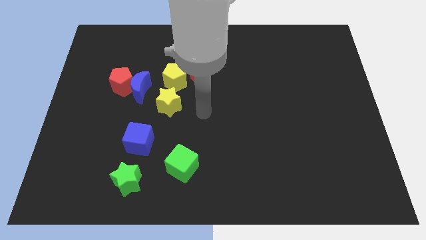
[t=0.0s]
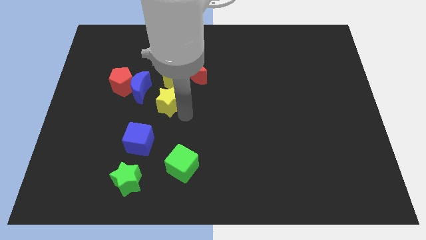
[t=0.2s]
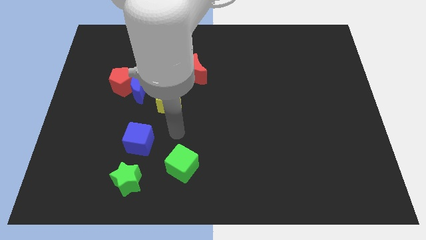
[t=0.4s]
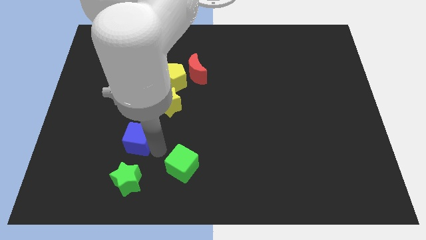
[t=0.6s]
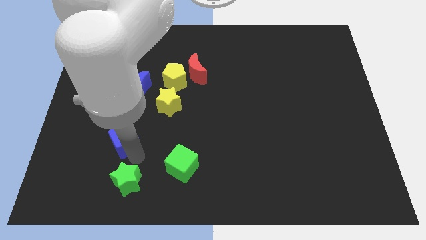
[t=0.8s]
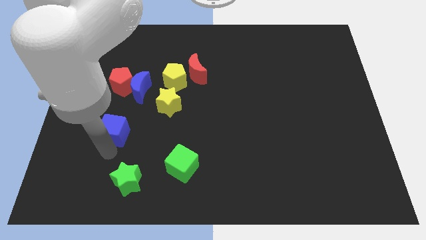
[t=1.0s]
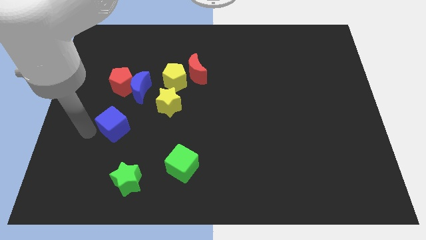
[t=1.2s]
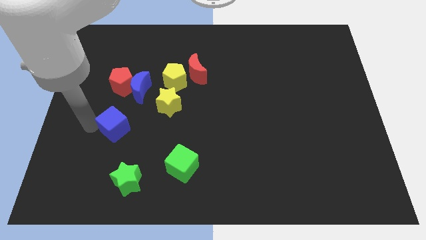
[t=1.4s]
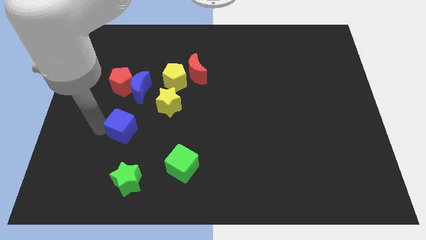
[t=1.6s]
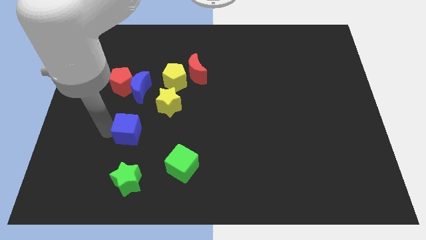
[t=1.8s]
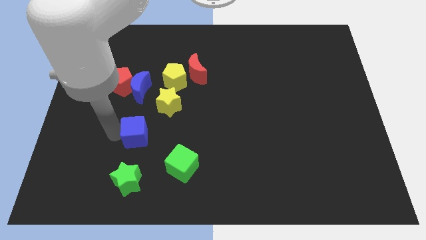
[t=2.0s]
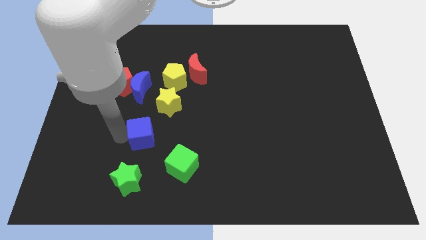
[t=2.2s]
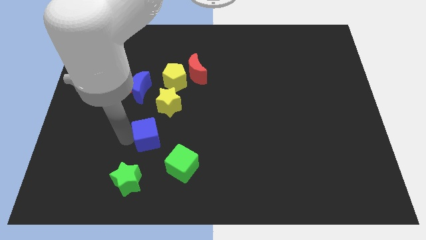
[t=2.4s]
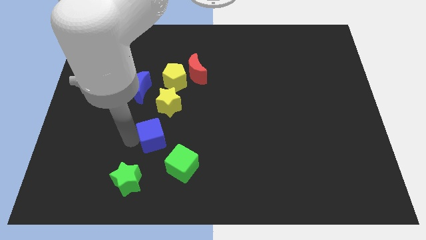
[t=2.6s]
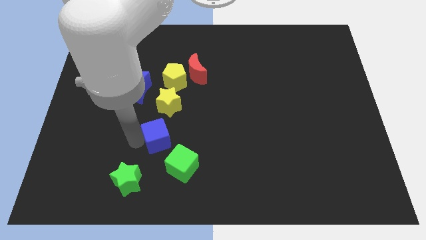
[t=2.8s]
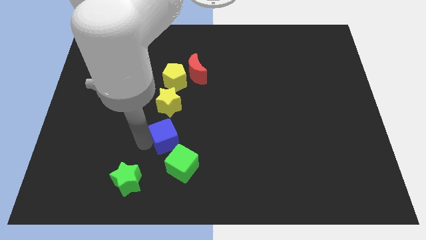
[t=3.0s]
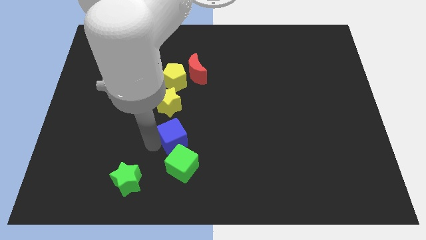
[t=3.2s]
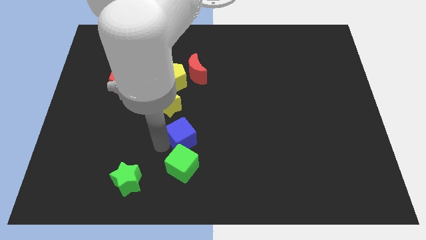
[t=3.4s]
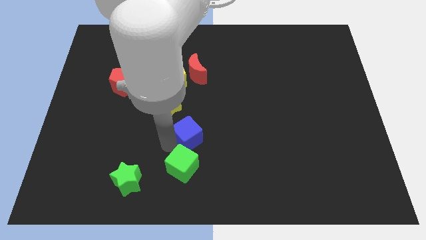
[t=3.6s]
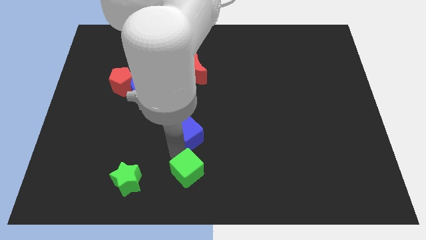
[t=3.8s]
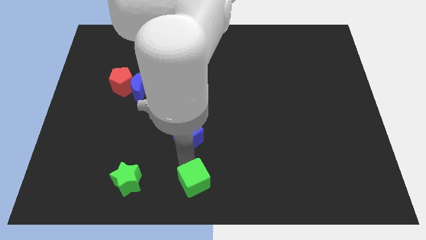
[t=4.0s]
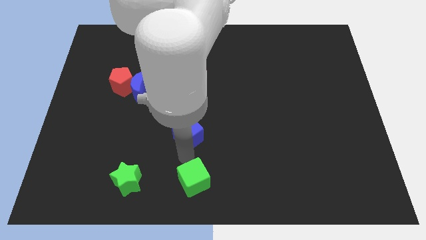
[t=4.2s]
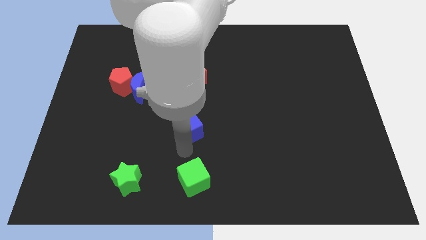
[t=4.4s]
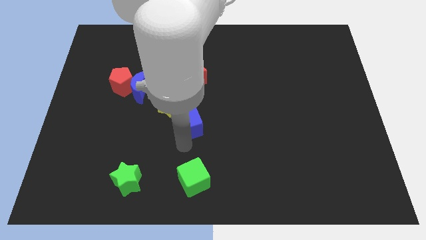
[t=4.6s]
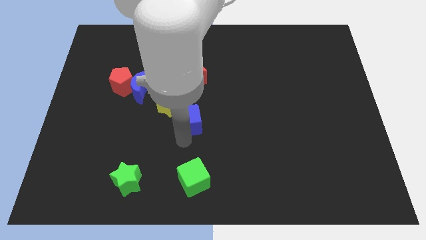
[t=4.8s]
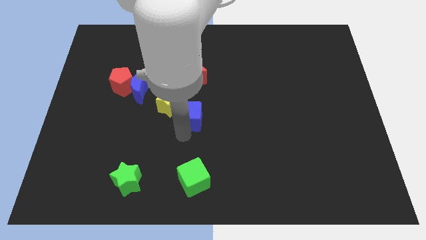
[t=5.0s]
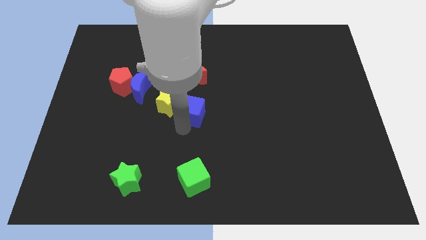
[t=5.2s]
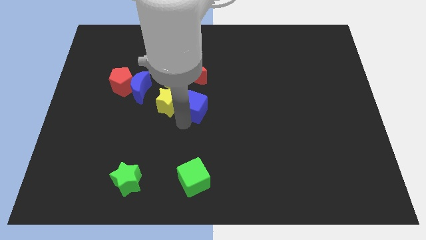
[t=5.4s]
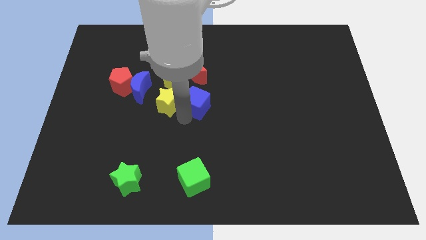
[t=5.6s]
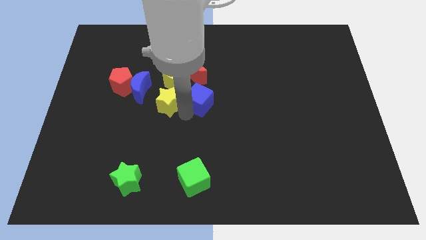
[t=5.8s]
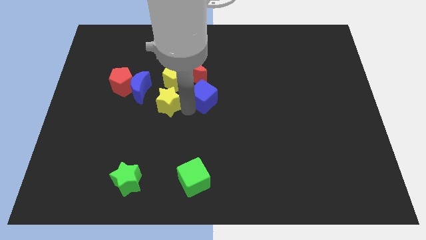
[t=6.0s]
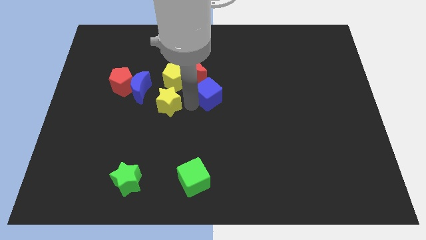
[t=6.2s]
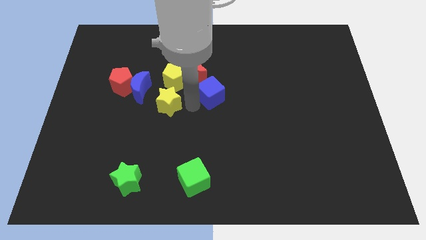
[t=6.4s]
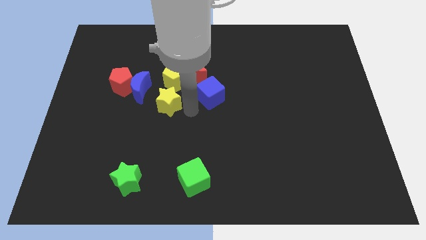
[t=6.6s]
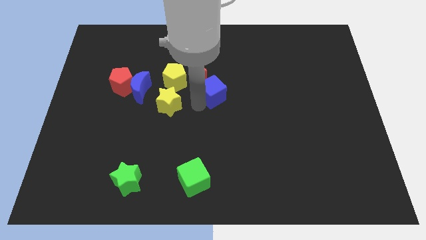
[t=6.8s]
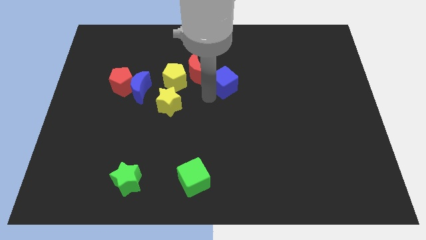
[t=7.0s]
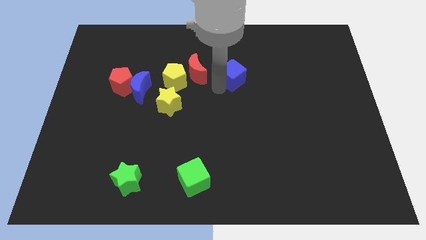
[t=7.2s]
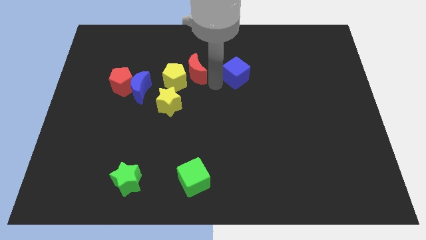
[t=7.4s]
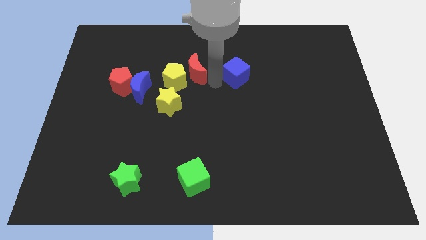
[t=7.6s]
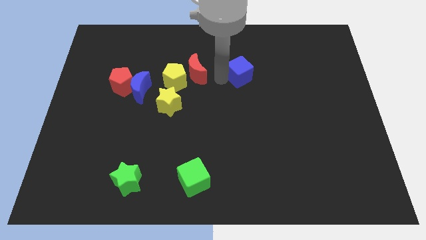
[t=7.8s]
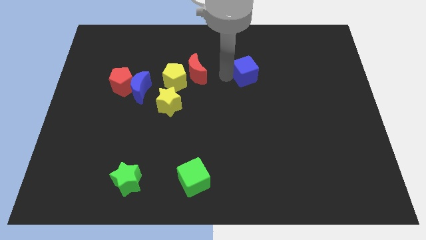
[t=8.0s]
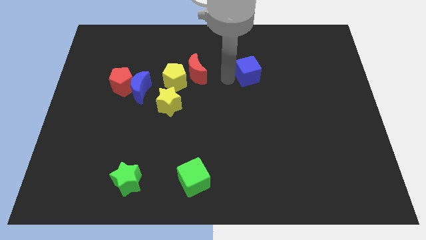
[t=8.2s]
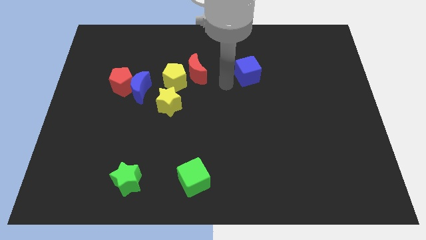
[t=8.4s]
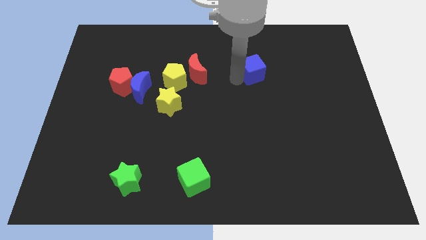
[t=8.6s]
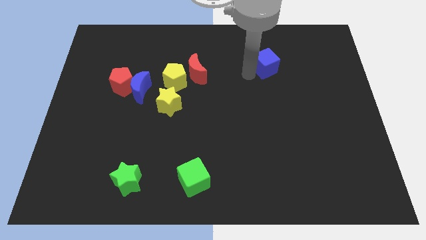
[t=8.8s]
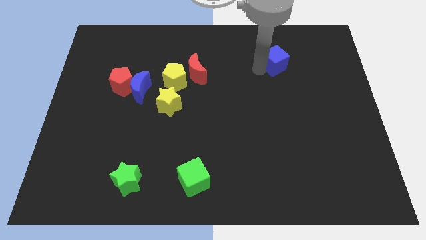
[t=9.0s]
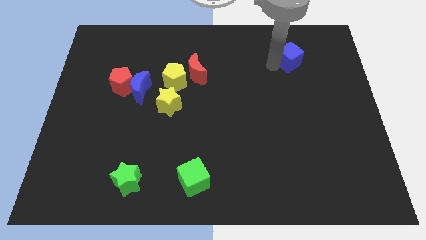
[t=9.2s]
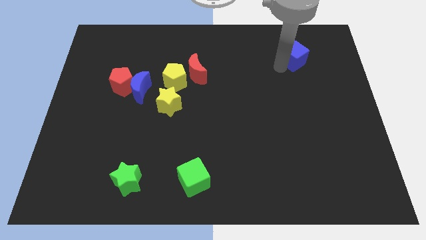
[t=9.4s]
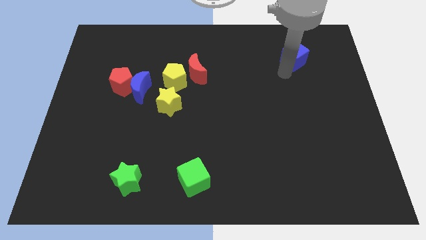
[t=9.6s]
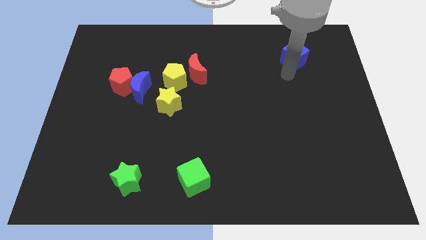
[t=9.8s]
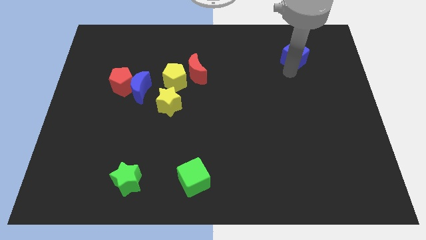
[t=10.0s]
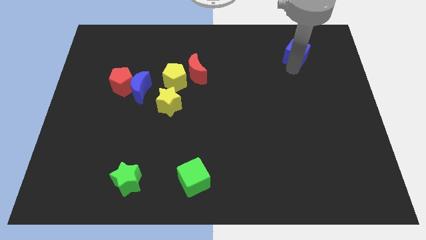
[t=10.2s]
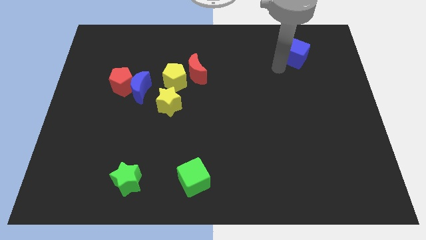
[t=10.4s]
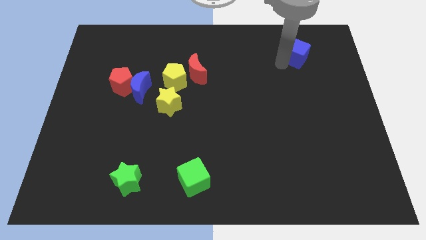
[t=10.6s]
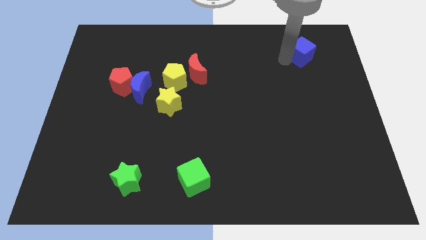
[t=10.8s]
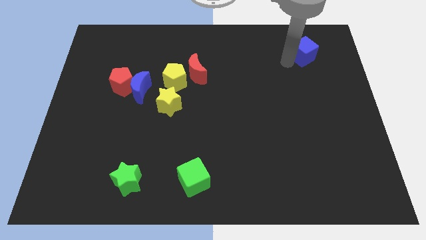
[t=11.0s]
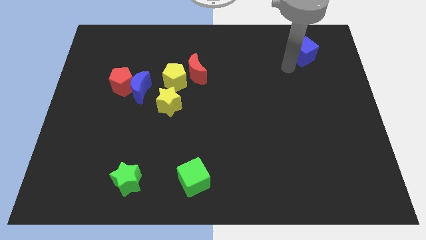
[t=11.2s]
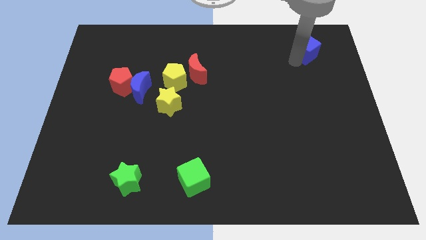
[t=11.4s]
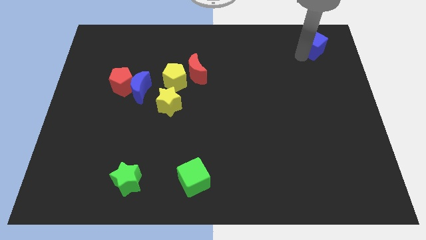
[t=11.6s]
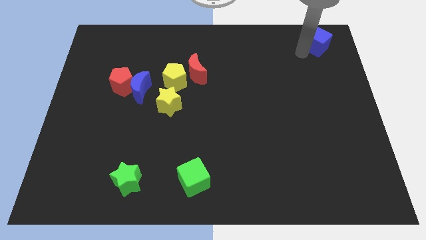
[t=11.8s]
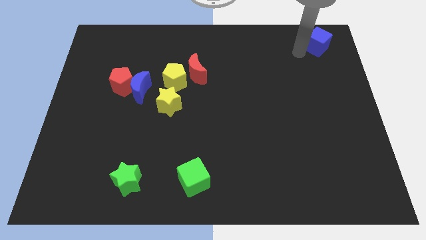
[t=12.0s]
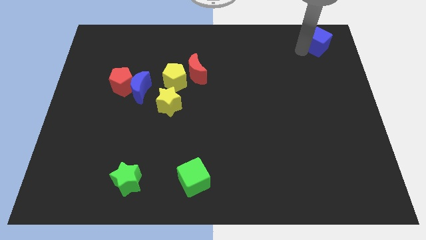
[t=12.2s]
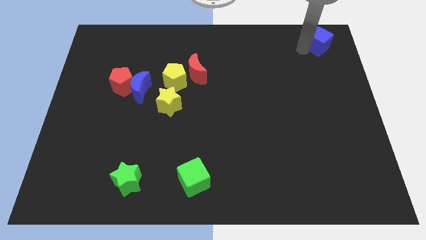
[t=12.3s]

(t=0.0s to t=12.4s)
push the blue cube to the top right corner
